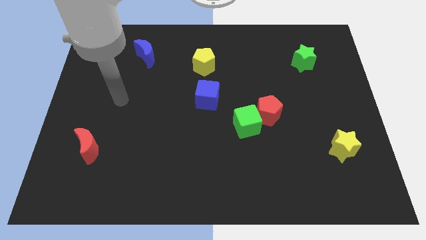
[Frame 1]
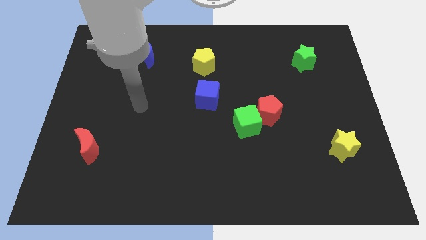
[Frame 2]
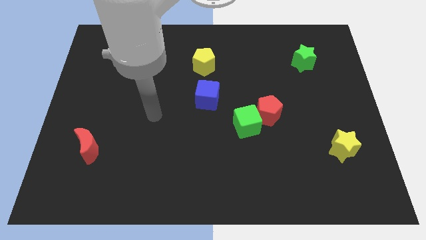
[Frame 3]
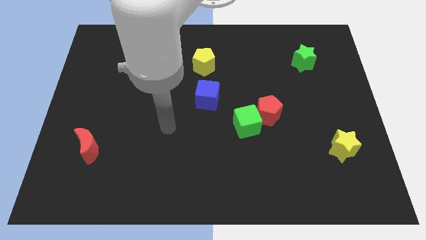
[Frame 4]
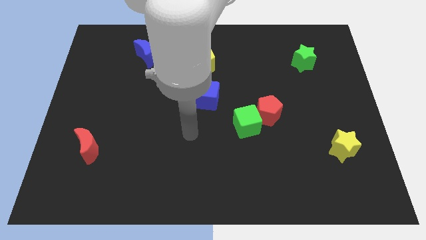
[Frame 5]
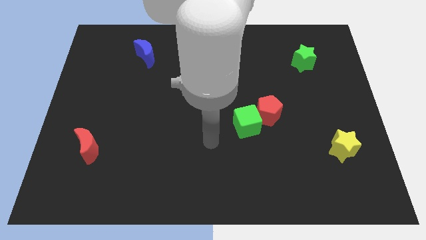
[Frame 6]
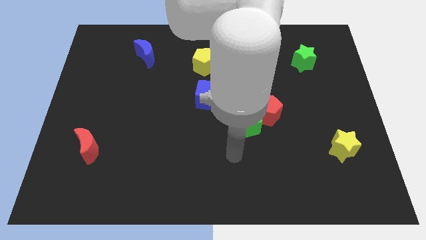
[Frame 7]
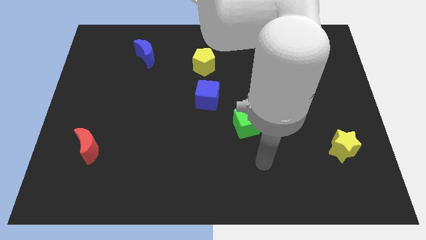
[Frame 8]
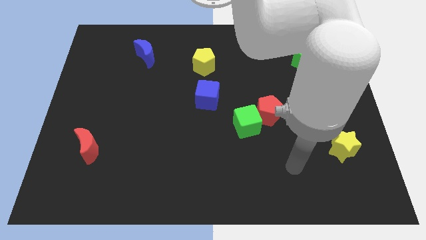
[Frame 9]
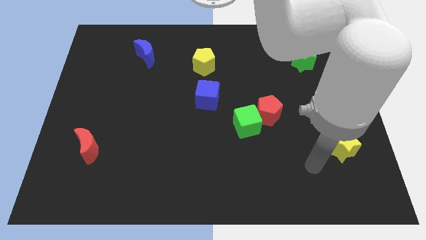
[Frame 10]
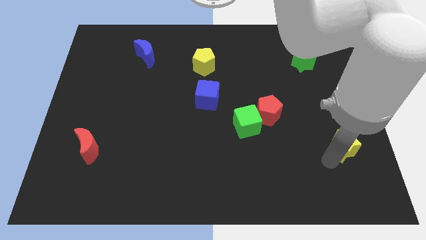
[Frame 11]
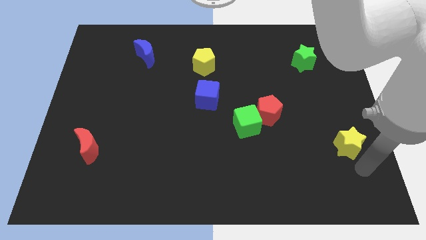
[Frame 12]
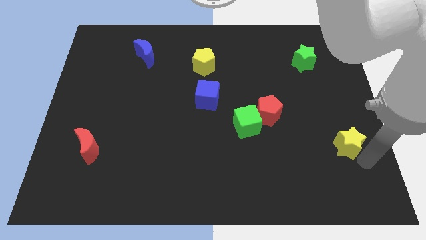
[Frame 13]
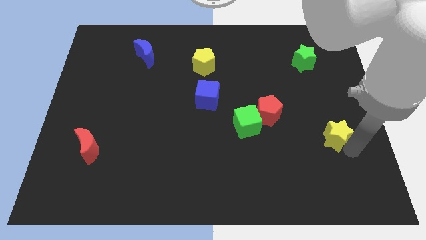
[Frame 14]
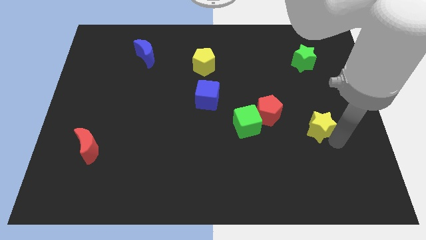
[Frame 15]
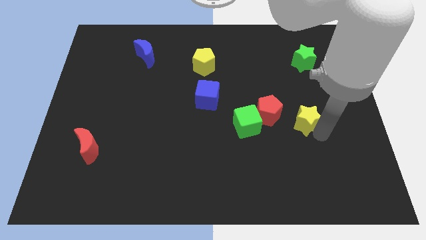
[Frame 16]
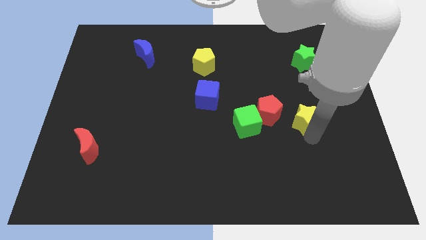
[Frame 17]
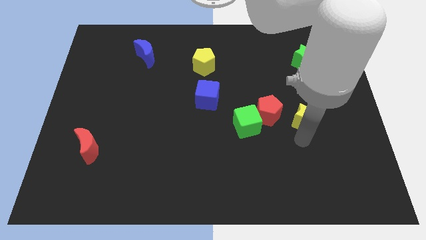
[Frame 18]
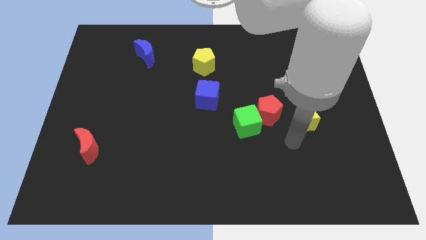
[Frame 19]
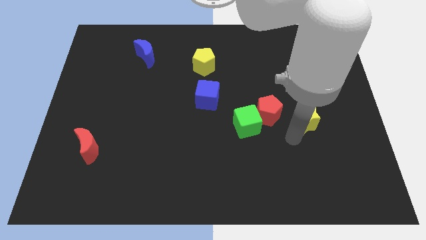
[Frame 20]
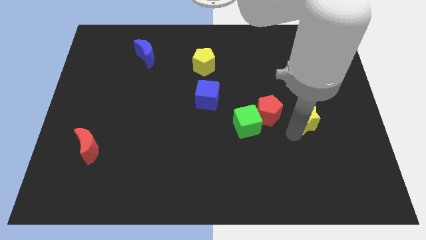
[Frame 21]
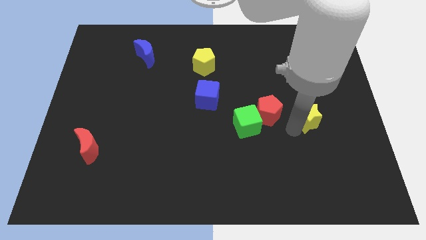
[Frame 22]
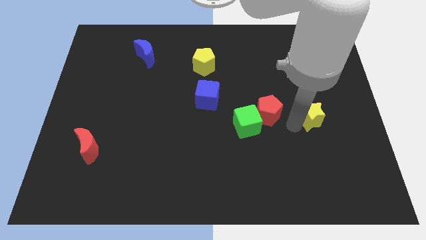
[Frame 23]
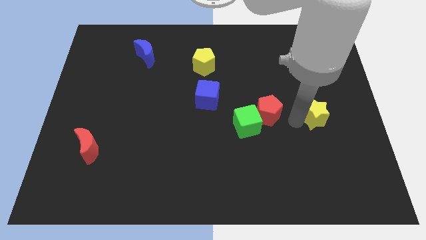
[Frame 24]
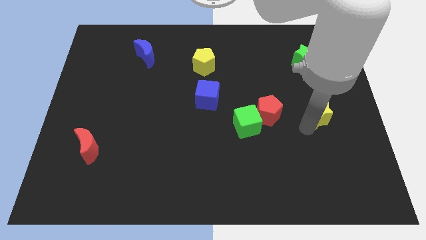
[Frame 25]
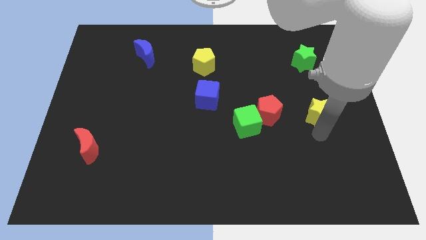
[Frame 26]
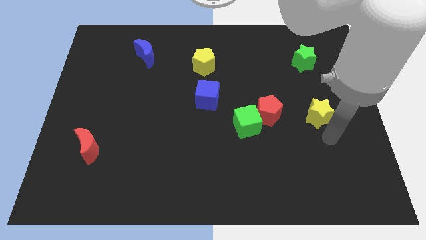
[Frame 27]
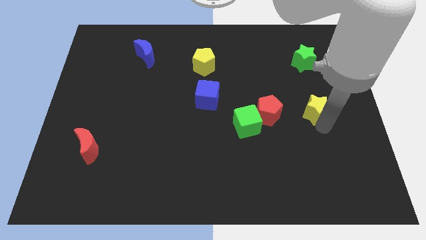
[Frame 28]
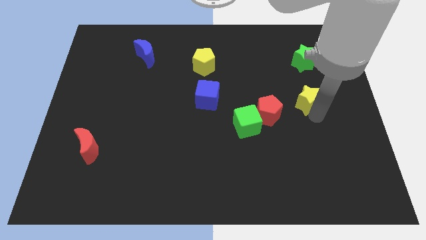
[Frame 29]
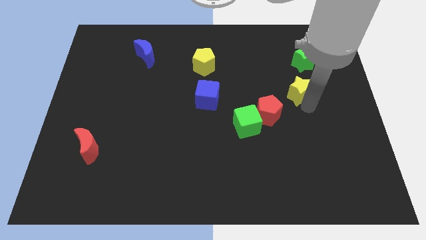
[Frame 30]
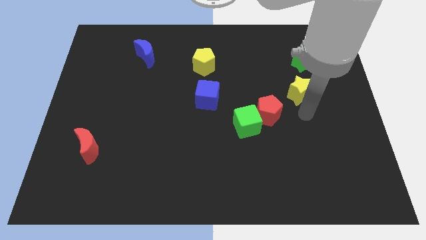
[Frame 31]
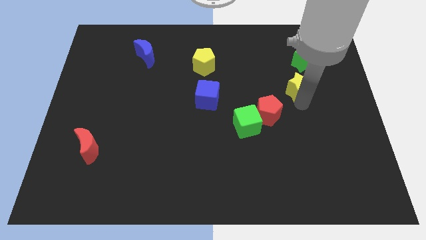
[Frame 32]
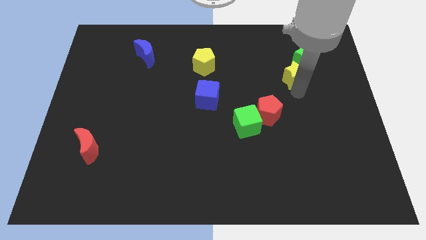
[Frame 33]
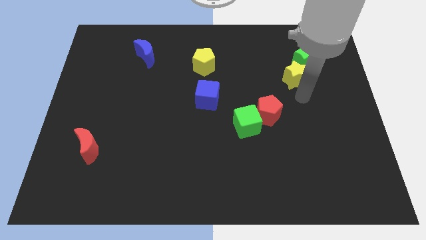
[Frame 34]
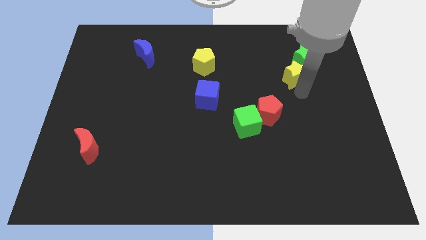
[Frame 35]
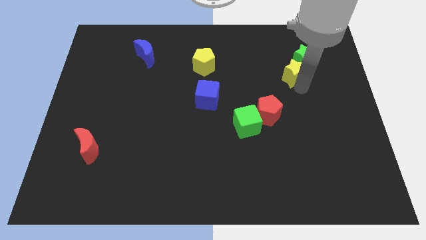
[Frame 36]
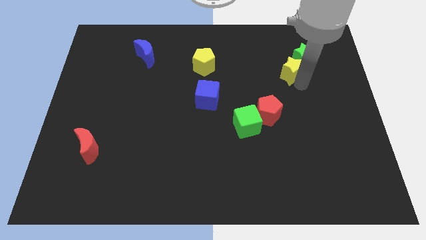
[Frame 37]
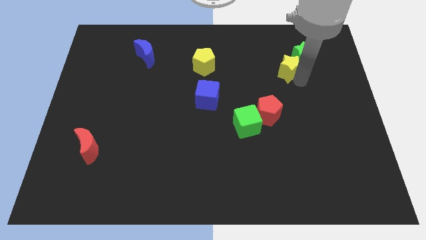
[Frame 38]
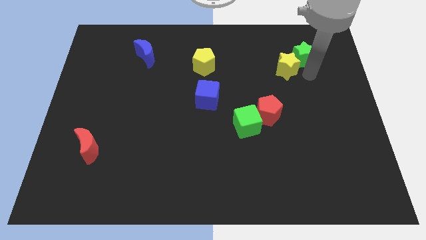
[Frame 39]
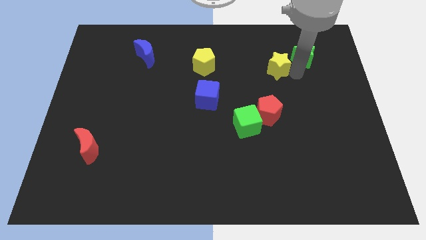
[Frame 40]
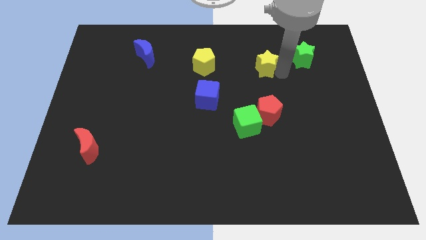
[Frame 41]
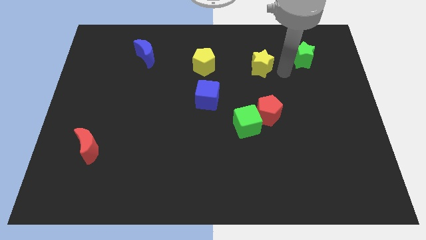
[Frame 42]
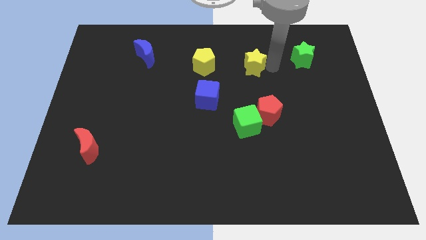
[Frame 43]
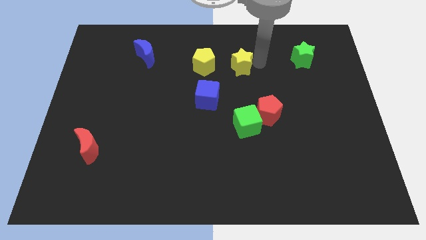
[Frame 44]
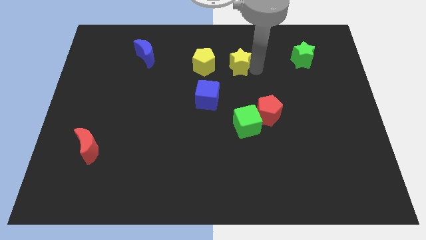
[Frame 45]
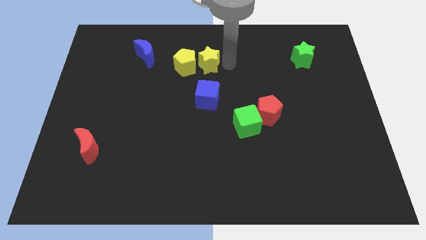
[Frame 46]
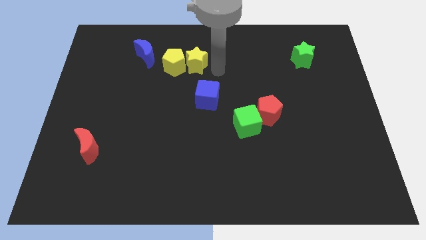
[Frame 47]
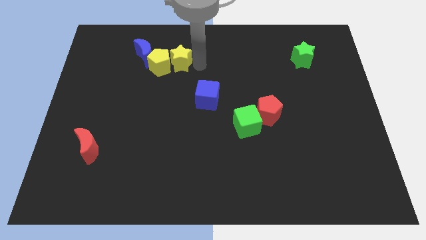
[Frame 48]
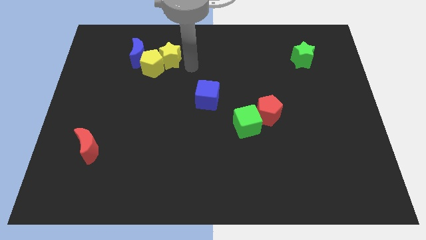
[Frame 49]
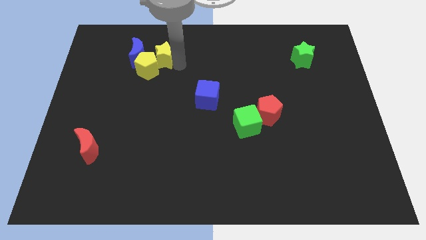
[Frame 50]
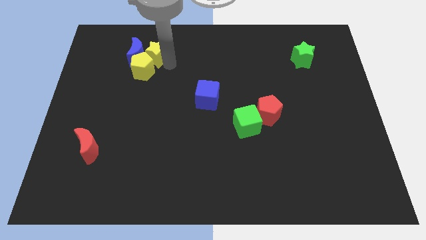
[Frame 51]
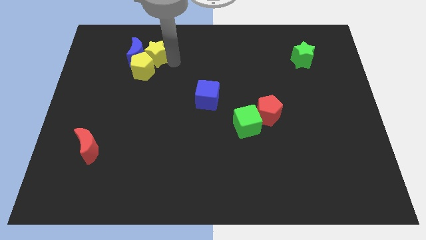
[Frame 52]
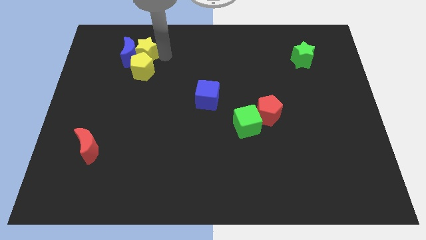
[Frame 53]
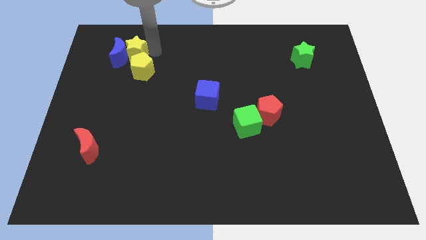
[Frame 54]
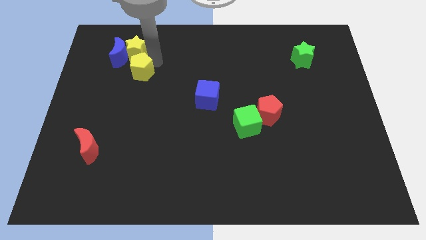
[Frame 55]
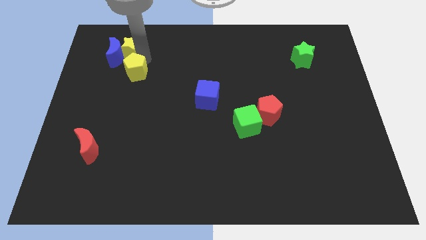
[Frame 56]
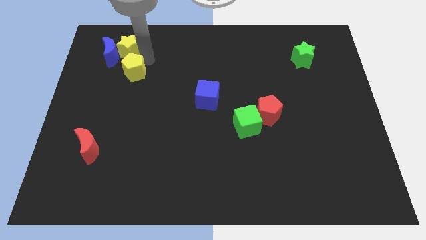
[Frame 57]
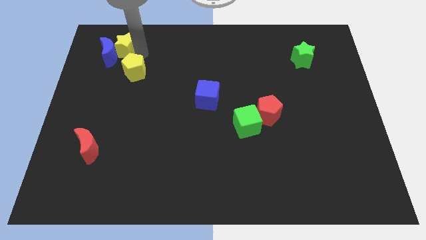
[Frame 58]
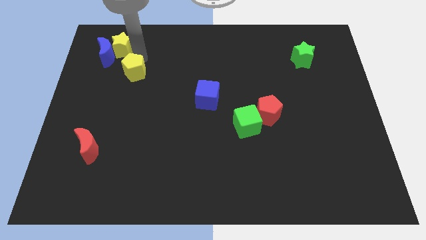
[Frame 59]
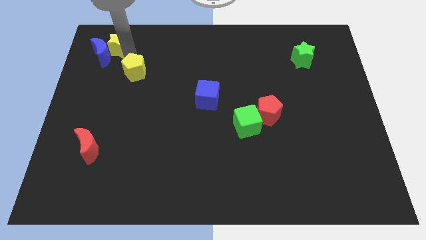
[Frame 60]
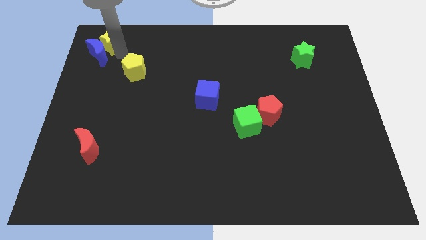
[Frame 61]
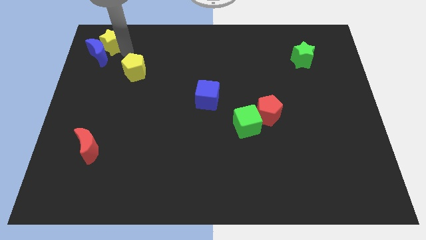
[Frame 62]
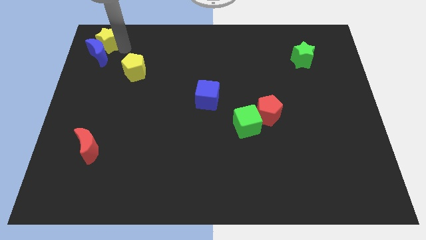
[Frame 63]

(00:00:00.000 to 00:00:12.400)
put the yellow star to the upper left corner
